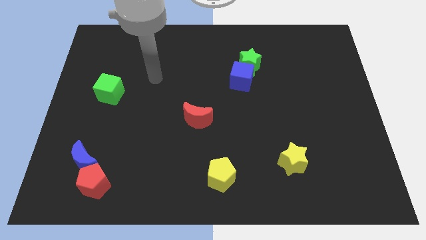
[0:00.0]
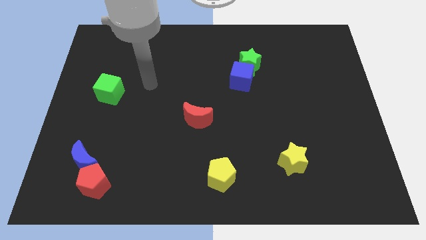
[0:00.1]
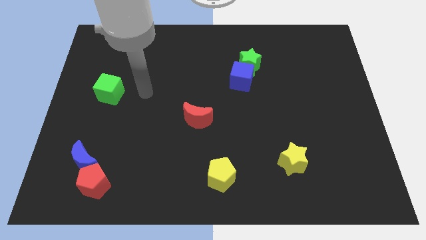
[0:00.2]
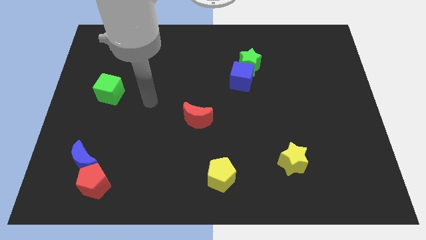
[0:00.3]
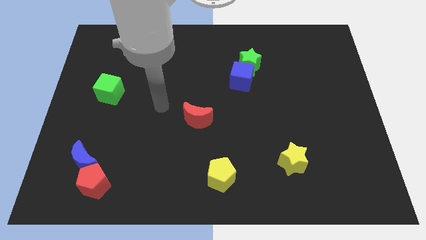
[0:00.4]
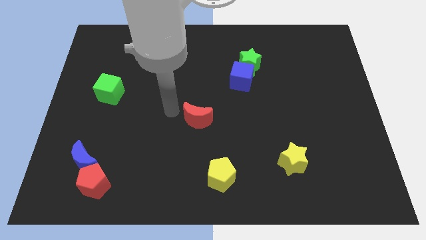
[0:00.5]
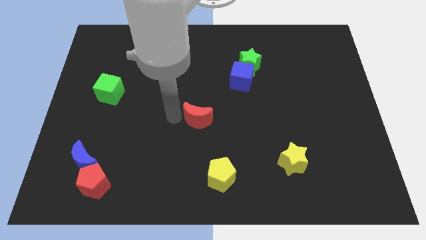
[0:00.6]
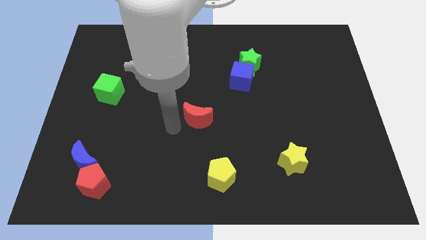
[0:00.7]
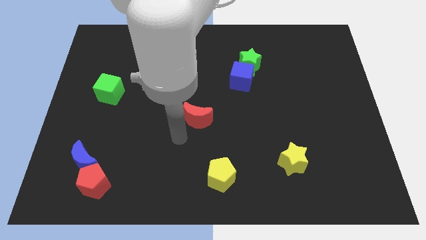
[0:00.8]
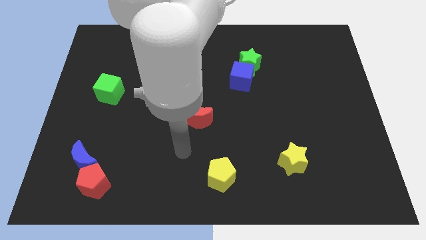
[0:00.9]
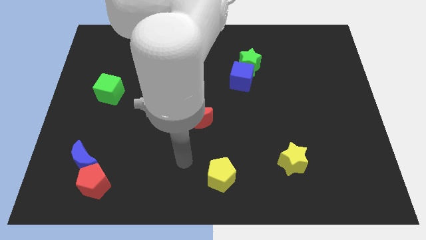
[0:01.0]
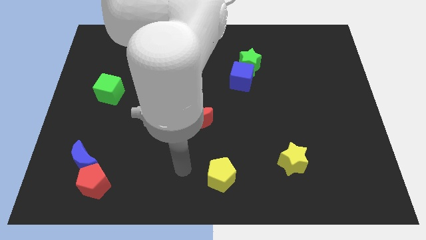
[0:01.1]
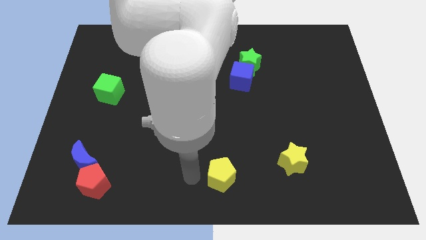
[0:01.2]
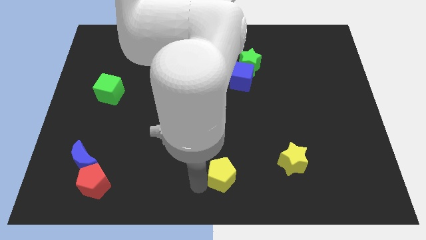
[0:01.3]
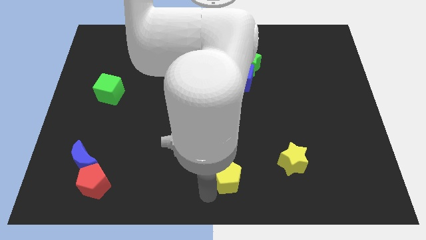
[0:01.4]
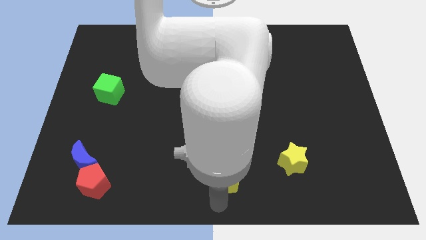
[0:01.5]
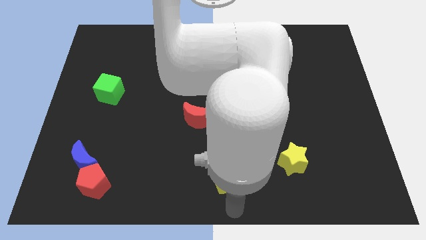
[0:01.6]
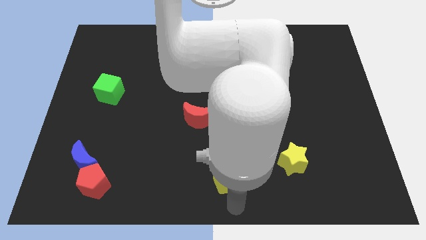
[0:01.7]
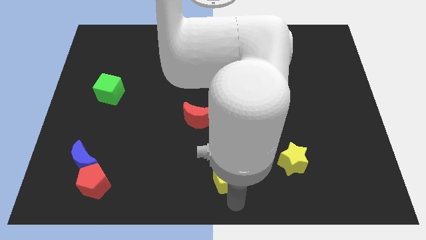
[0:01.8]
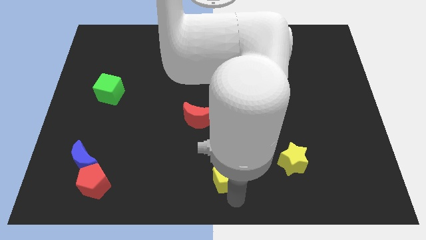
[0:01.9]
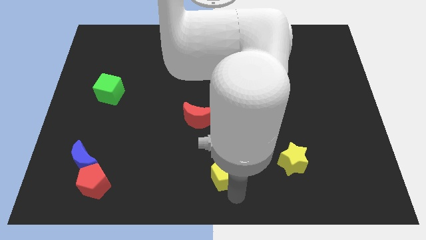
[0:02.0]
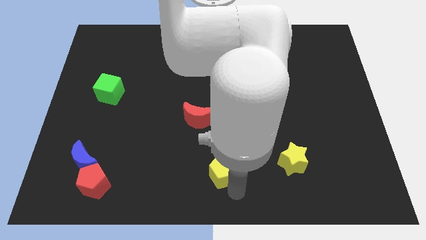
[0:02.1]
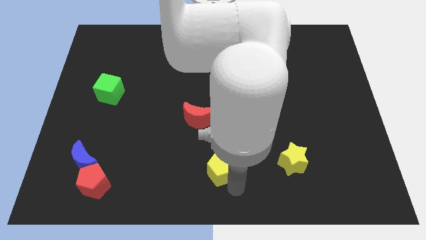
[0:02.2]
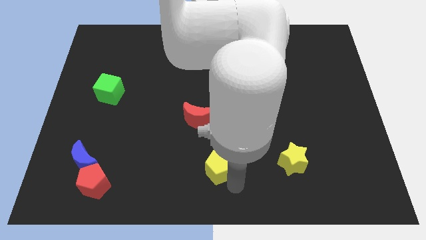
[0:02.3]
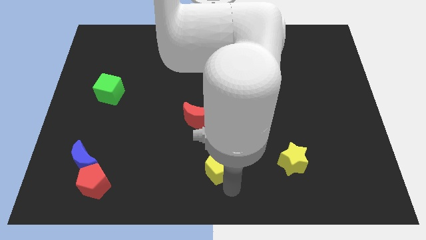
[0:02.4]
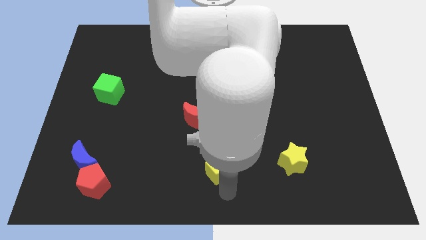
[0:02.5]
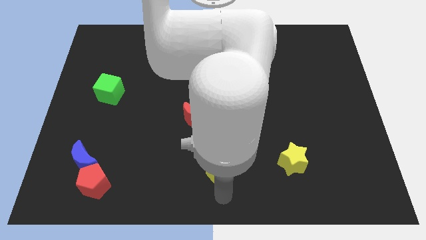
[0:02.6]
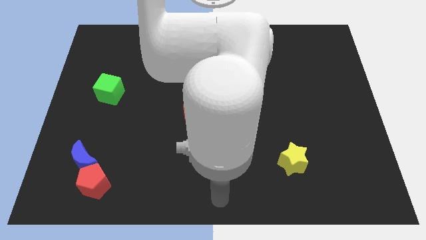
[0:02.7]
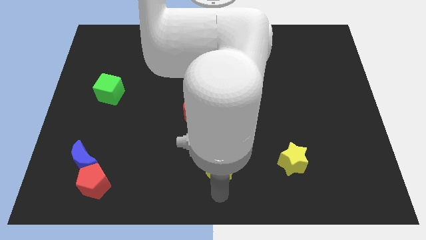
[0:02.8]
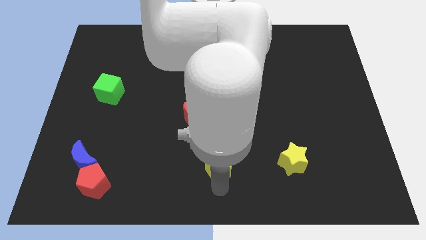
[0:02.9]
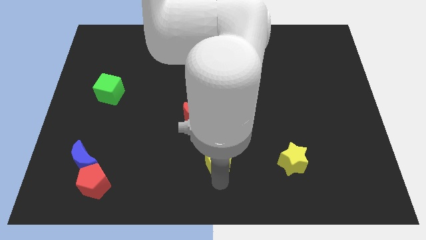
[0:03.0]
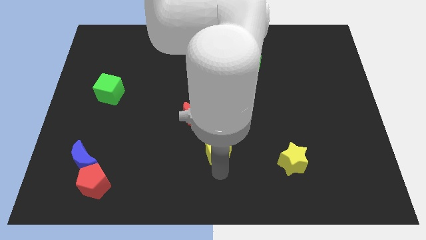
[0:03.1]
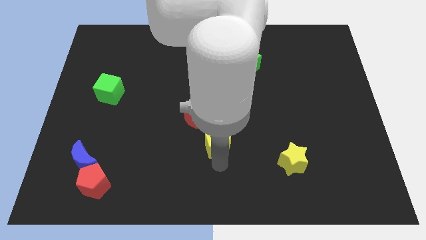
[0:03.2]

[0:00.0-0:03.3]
slightly move the yellow pentagon upwards

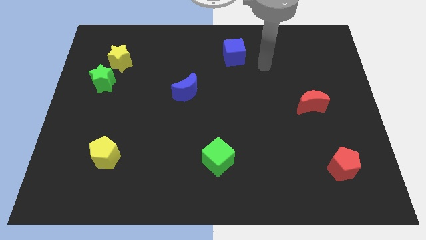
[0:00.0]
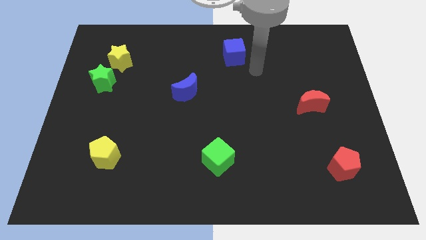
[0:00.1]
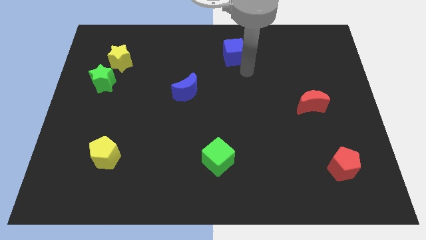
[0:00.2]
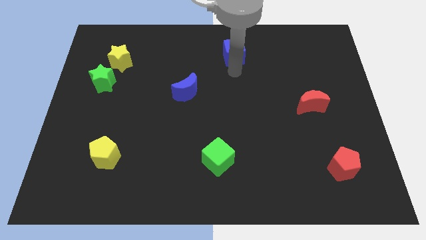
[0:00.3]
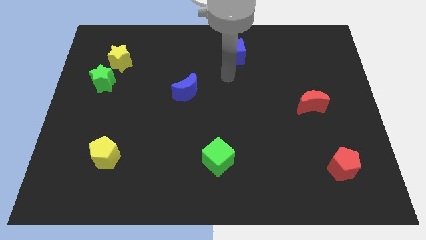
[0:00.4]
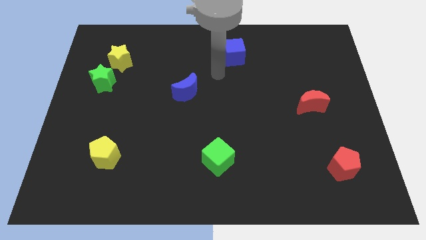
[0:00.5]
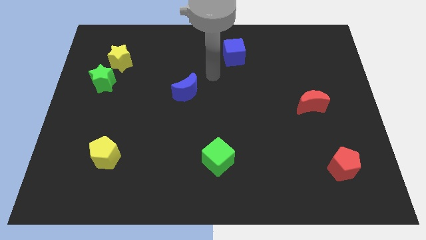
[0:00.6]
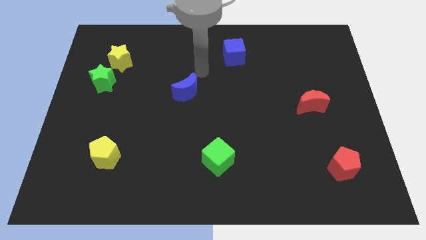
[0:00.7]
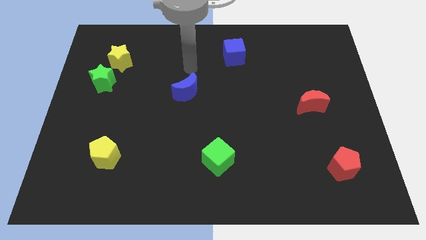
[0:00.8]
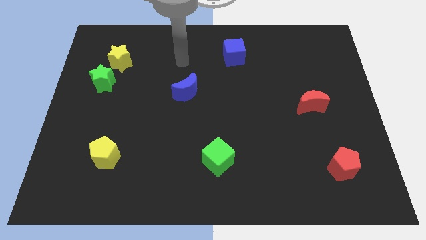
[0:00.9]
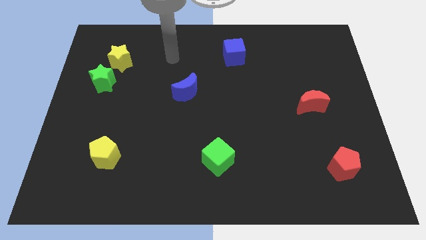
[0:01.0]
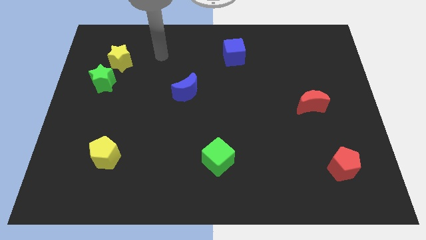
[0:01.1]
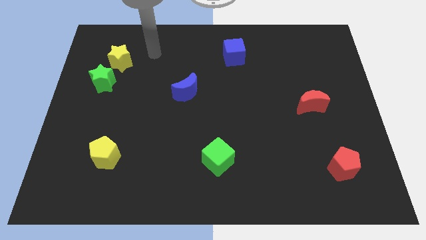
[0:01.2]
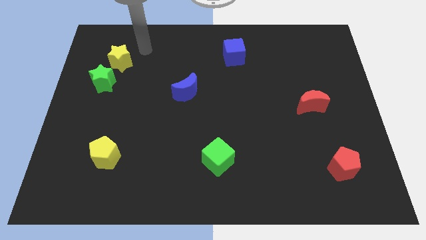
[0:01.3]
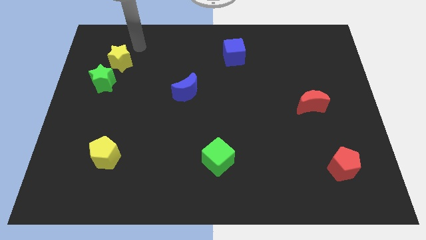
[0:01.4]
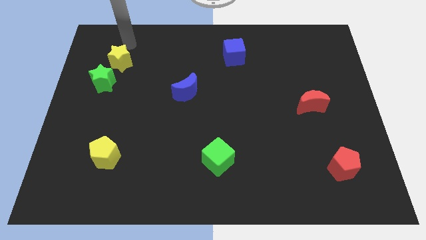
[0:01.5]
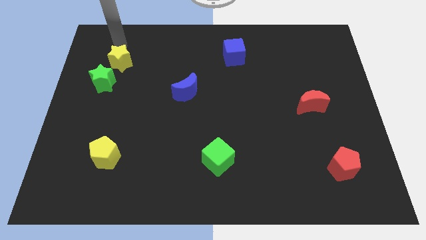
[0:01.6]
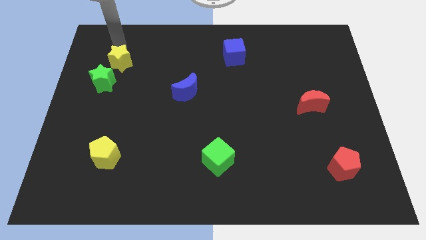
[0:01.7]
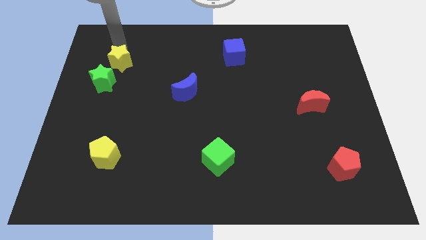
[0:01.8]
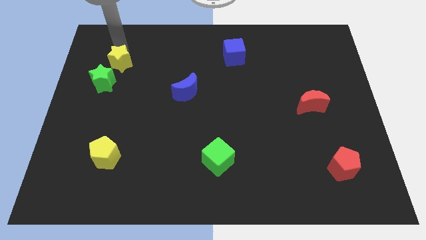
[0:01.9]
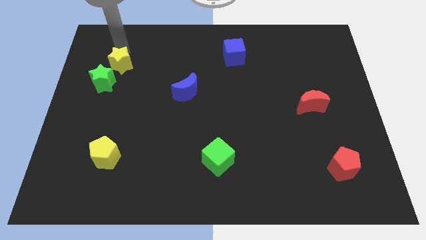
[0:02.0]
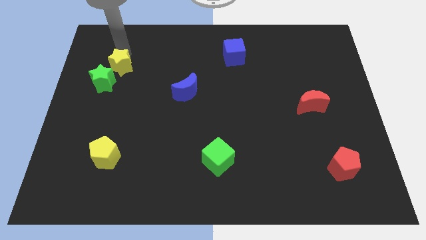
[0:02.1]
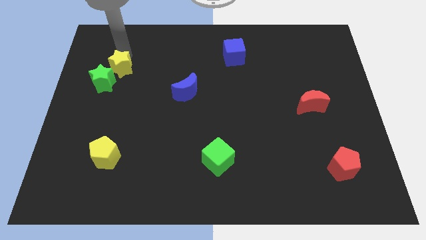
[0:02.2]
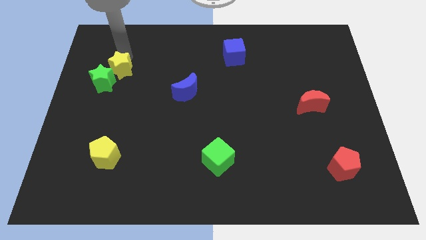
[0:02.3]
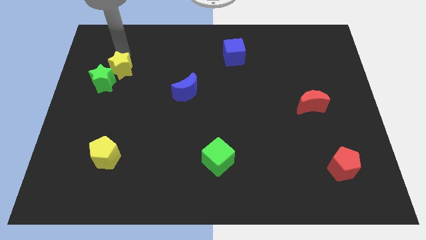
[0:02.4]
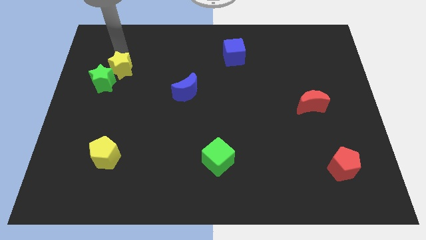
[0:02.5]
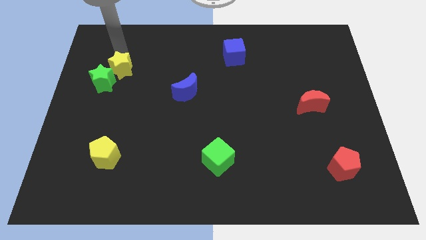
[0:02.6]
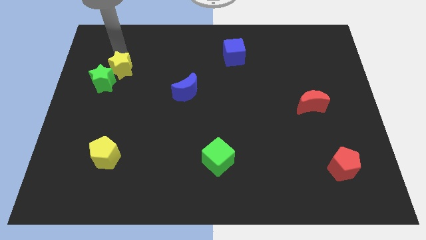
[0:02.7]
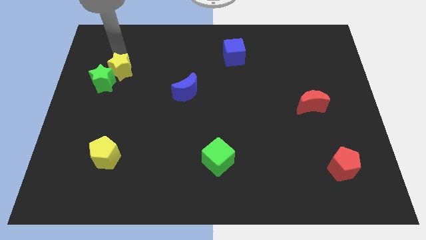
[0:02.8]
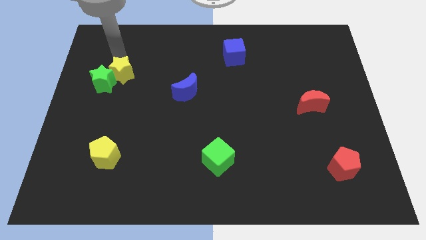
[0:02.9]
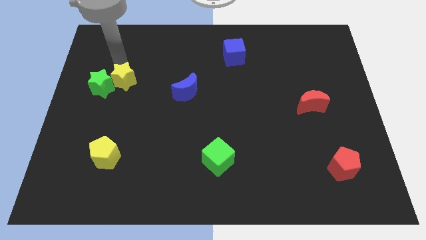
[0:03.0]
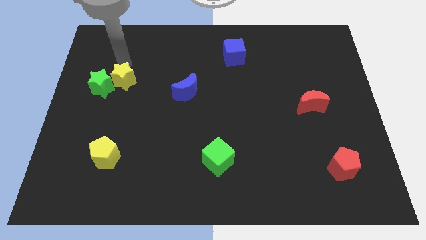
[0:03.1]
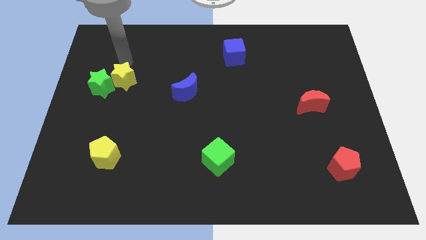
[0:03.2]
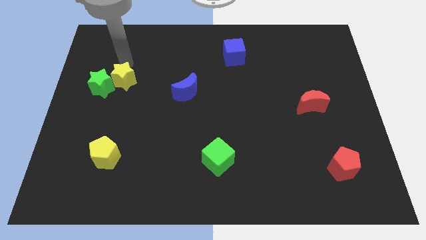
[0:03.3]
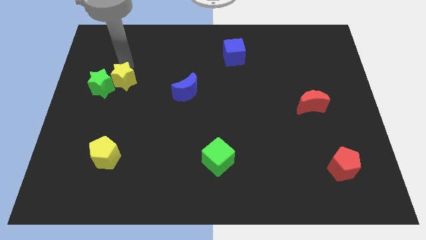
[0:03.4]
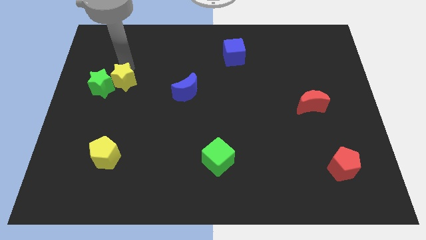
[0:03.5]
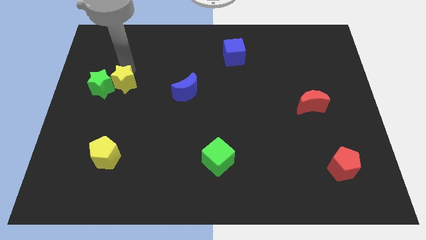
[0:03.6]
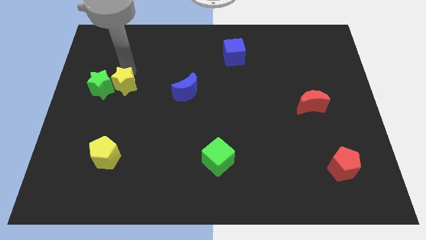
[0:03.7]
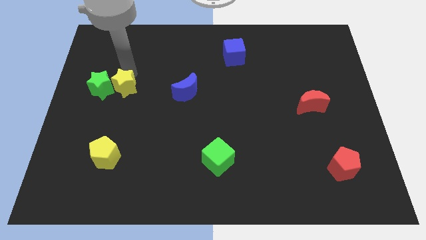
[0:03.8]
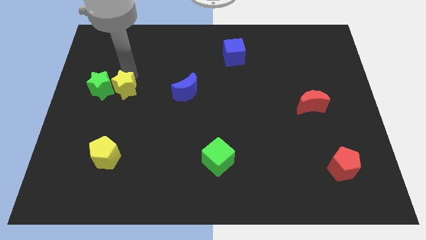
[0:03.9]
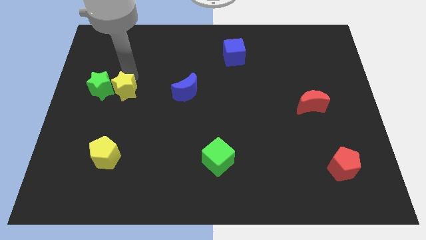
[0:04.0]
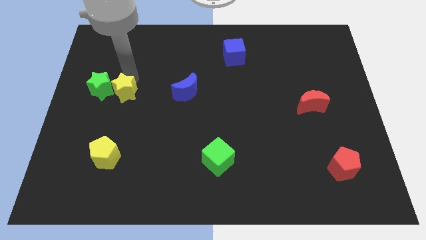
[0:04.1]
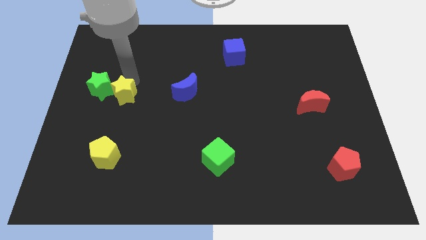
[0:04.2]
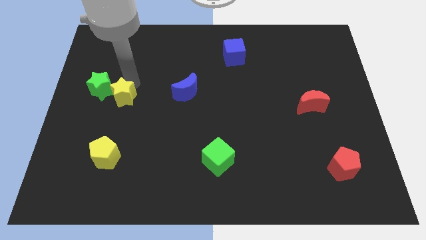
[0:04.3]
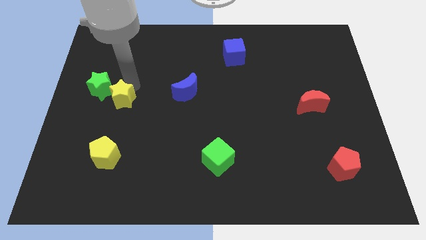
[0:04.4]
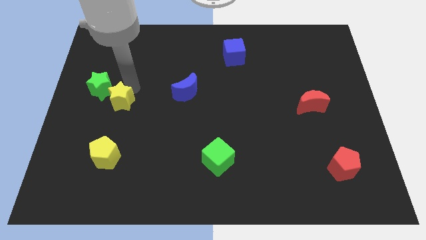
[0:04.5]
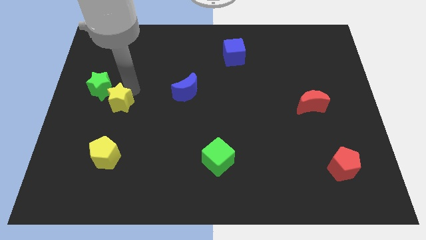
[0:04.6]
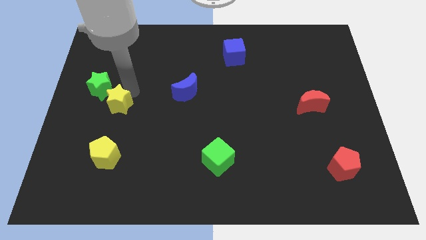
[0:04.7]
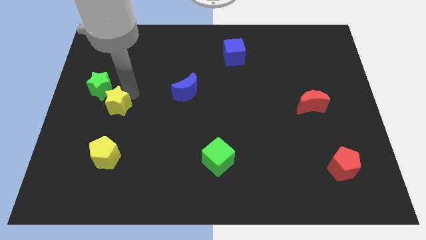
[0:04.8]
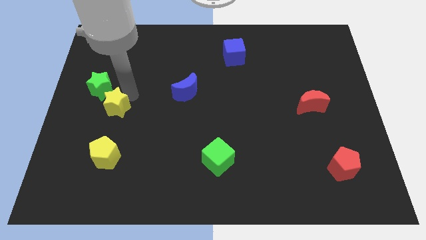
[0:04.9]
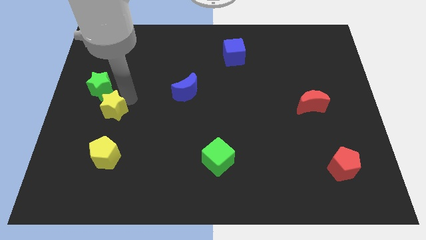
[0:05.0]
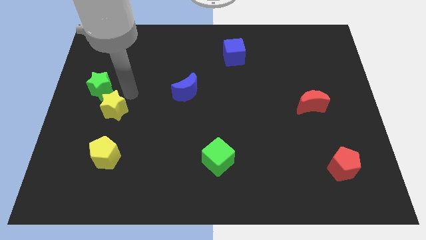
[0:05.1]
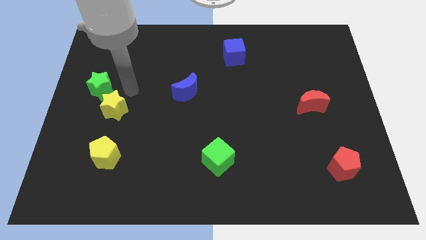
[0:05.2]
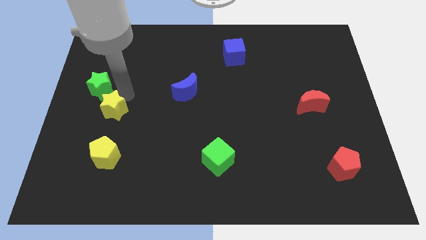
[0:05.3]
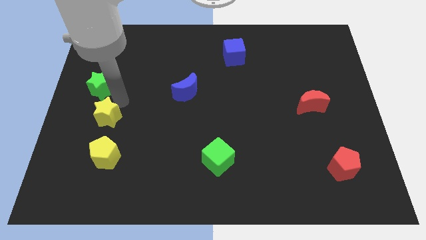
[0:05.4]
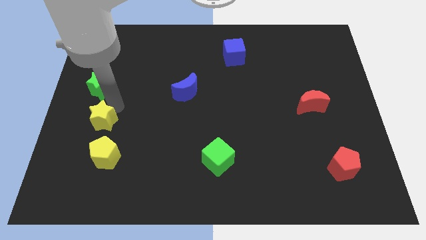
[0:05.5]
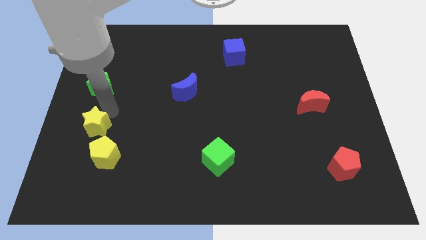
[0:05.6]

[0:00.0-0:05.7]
move the yellow star down
